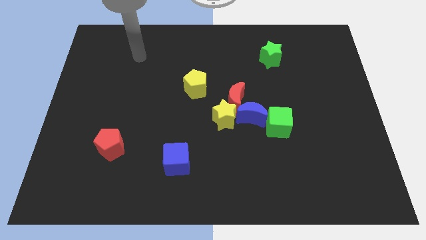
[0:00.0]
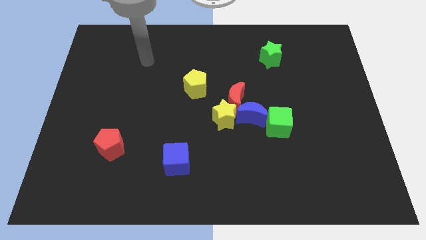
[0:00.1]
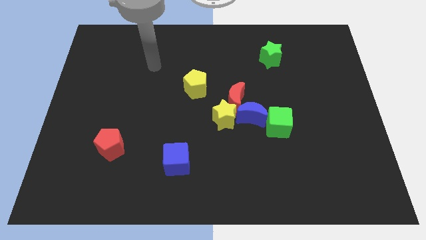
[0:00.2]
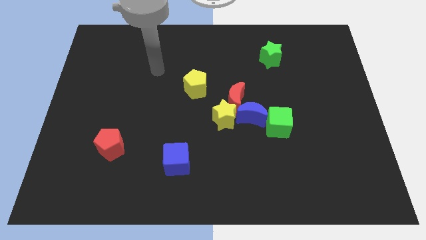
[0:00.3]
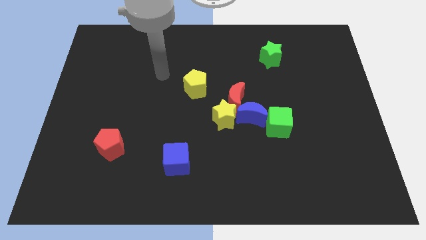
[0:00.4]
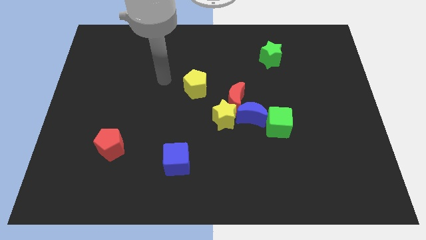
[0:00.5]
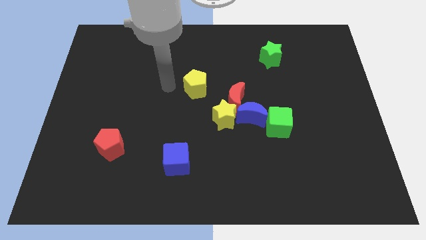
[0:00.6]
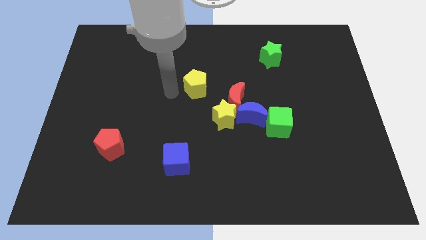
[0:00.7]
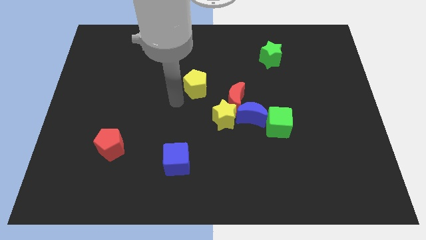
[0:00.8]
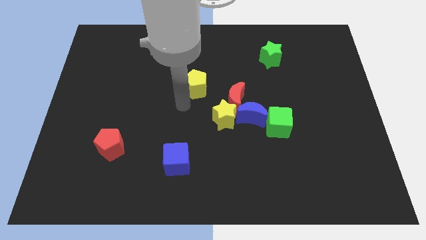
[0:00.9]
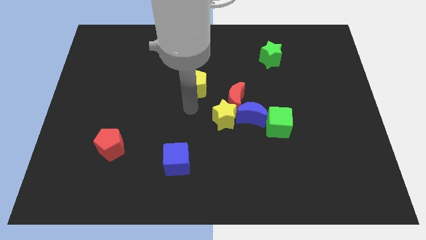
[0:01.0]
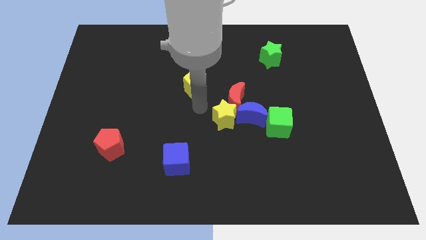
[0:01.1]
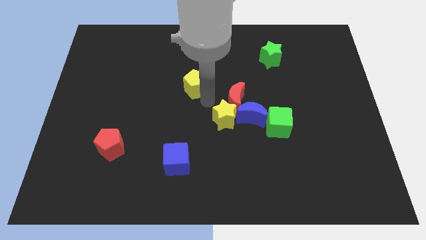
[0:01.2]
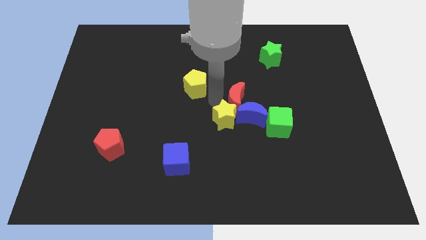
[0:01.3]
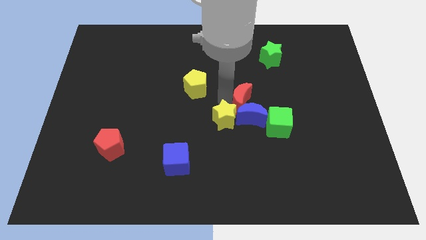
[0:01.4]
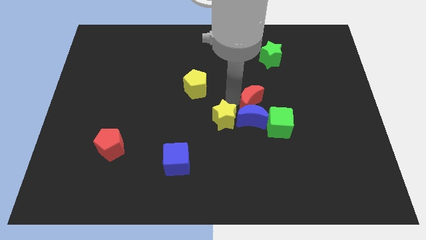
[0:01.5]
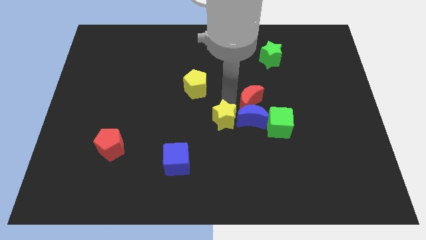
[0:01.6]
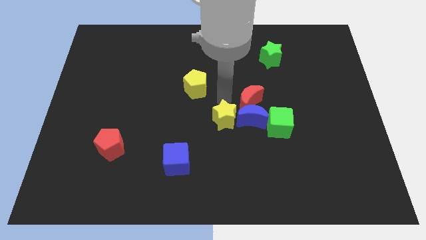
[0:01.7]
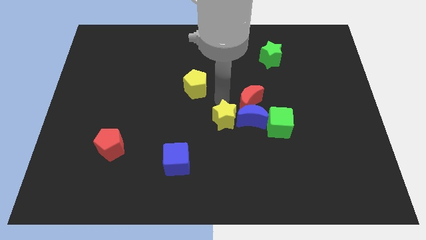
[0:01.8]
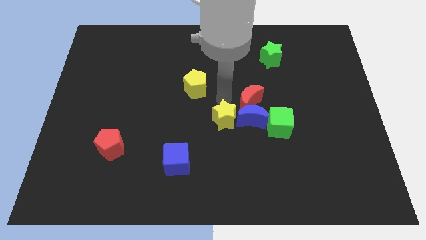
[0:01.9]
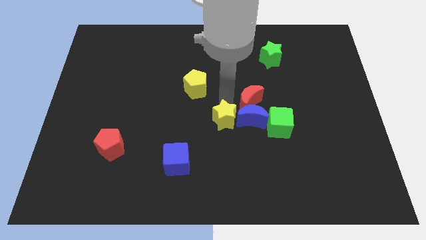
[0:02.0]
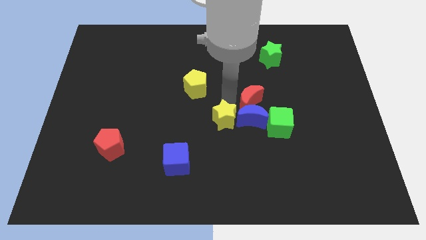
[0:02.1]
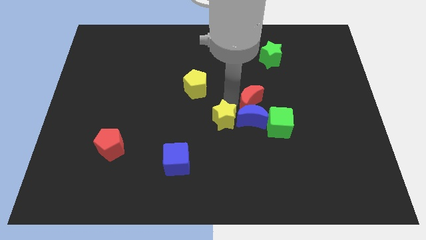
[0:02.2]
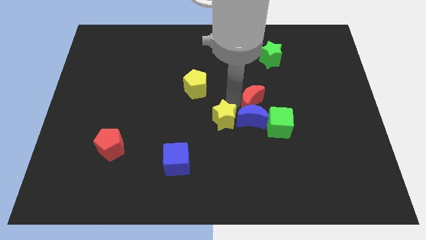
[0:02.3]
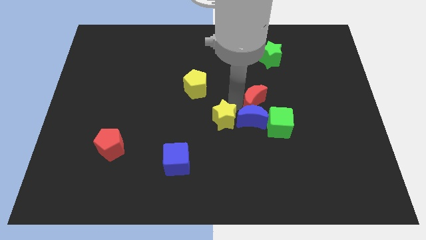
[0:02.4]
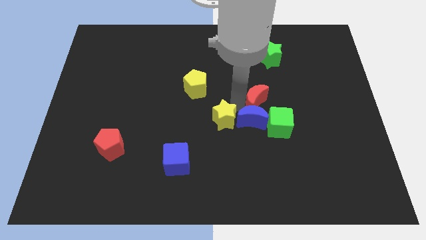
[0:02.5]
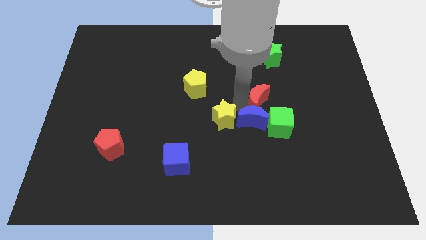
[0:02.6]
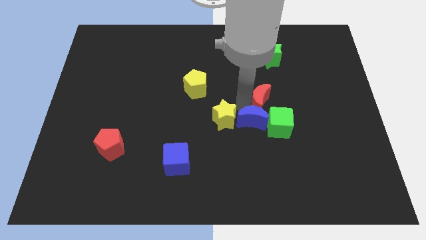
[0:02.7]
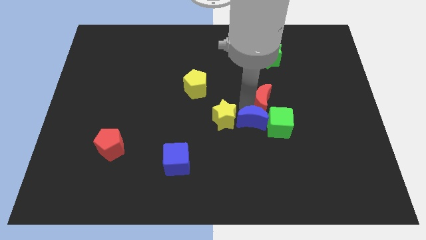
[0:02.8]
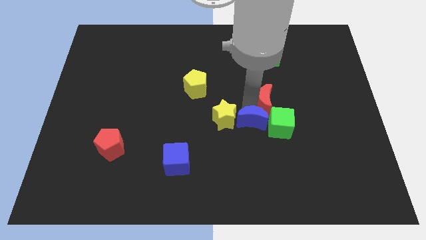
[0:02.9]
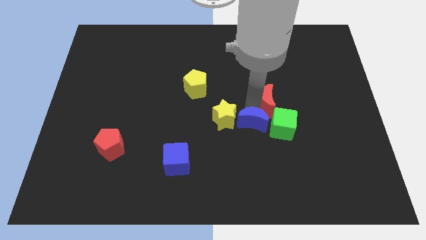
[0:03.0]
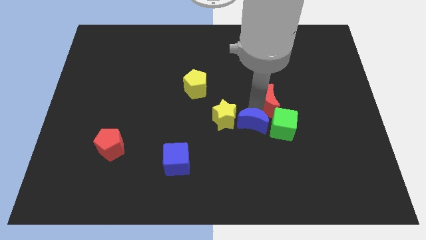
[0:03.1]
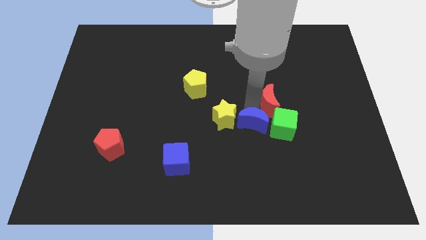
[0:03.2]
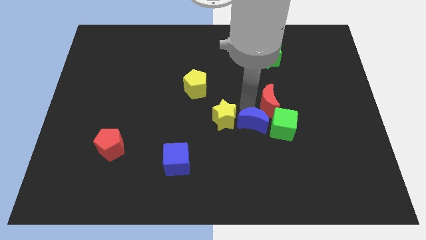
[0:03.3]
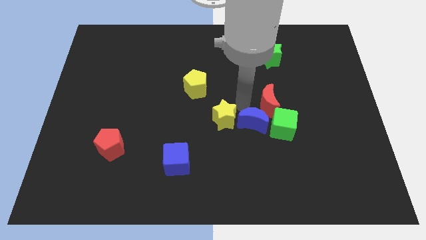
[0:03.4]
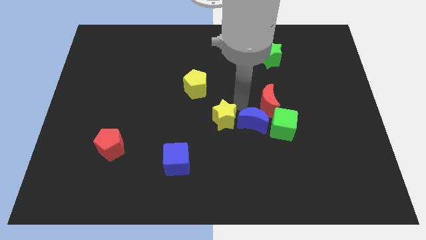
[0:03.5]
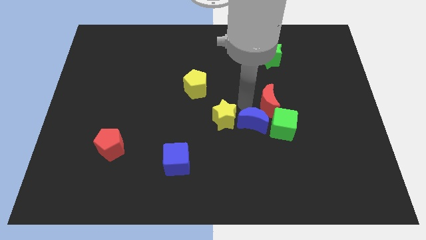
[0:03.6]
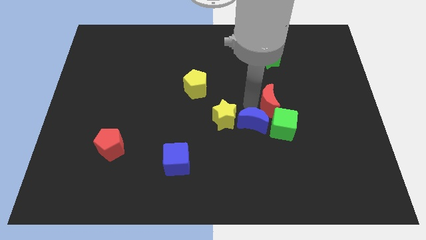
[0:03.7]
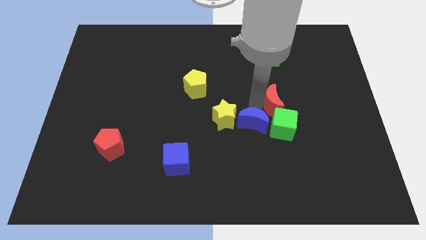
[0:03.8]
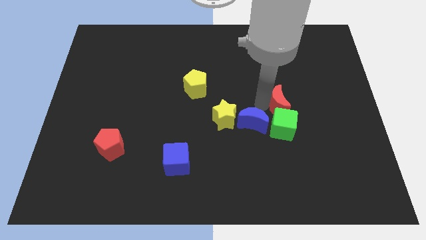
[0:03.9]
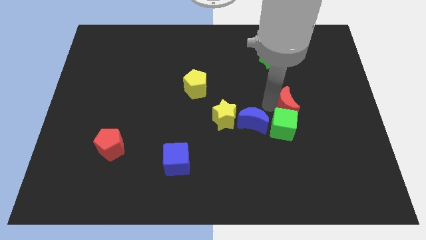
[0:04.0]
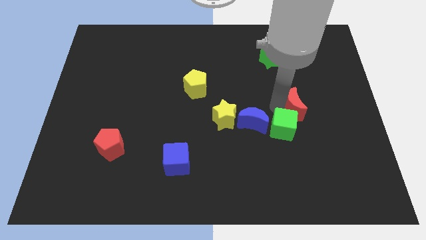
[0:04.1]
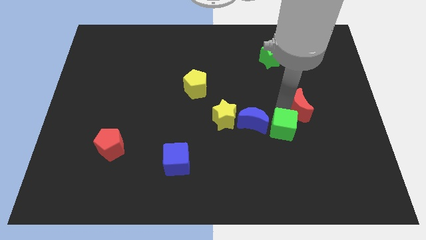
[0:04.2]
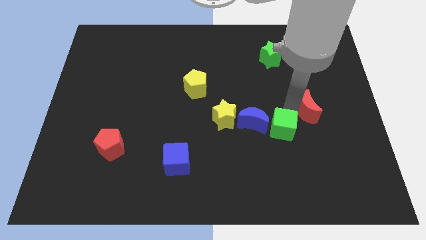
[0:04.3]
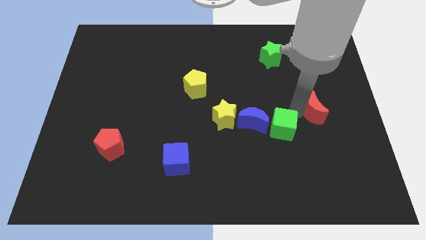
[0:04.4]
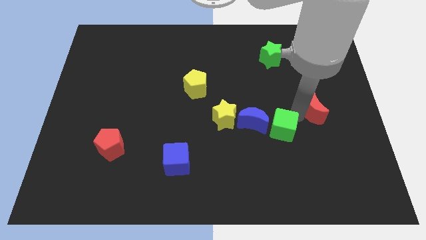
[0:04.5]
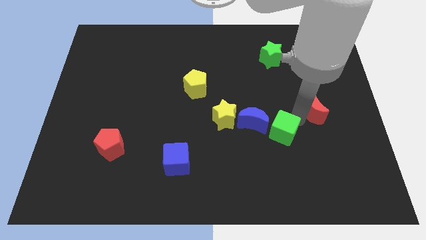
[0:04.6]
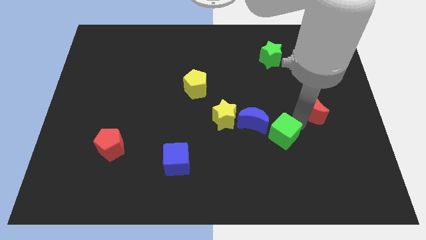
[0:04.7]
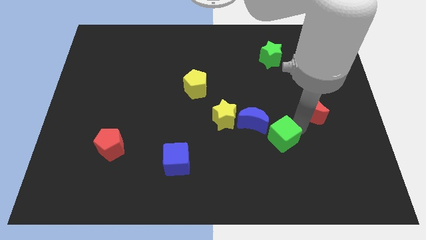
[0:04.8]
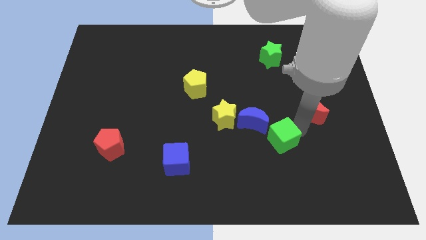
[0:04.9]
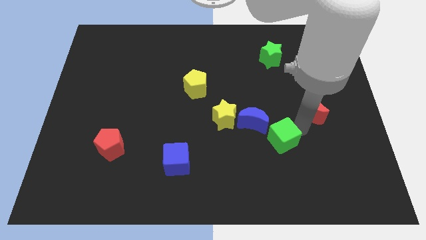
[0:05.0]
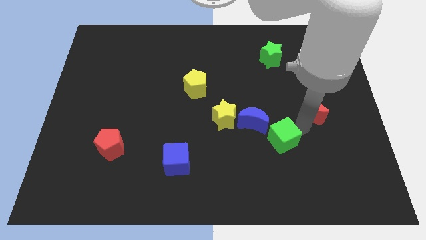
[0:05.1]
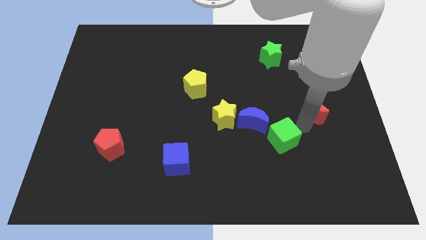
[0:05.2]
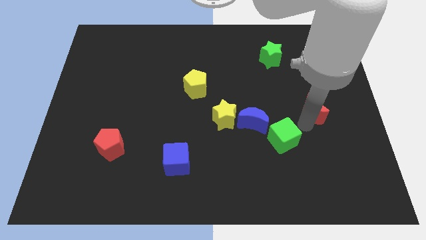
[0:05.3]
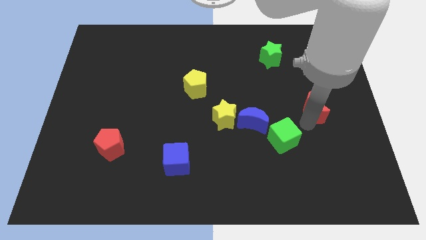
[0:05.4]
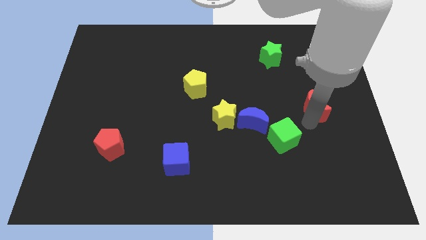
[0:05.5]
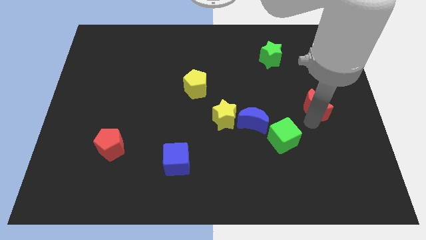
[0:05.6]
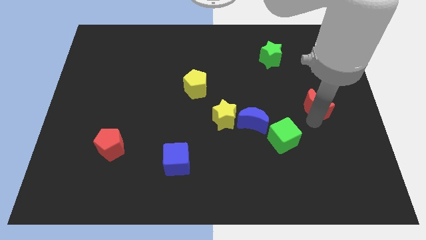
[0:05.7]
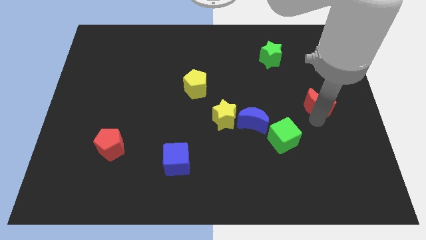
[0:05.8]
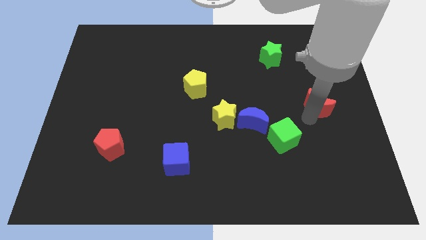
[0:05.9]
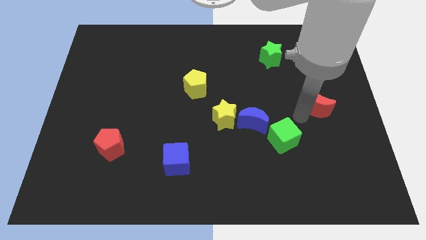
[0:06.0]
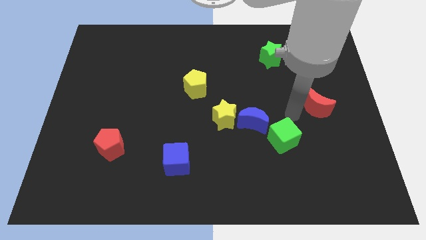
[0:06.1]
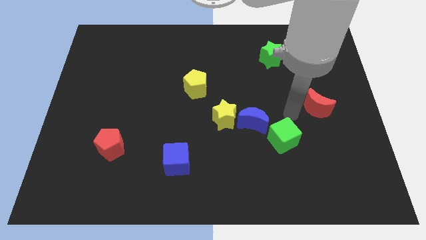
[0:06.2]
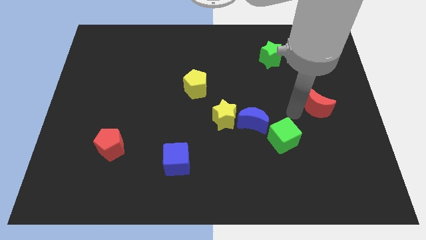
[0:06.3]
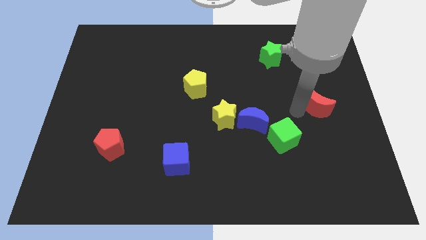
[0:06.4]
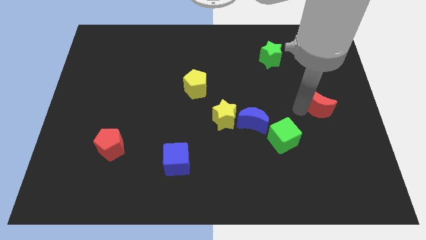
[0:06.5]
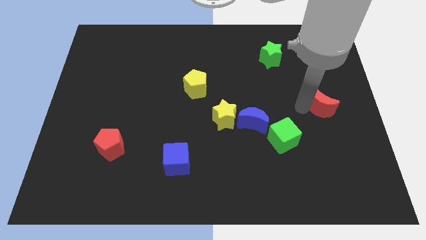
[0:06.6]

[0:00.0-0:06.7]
move the red moon to the right side

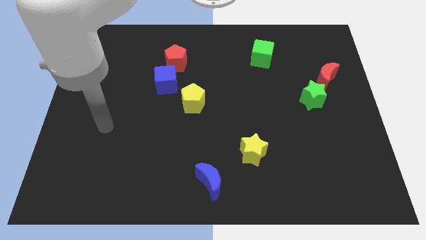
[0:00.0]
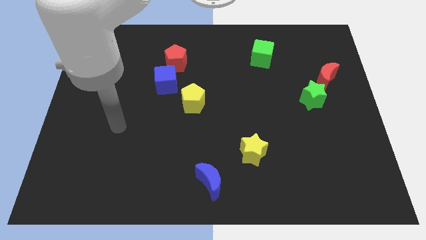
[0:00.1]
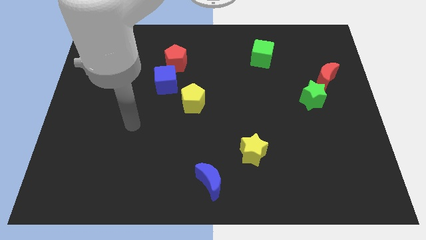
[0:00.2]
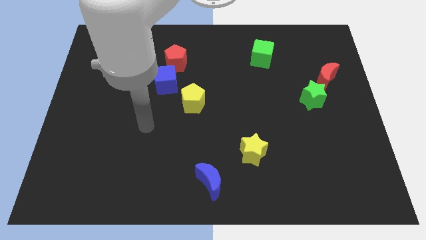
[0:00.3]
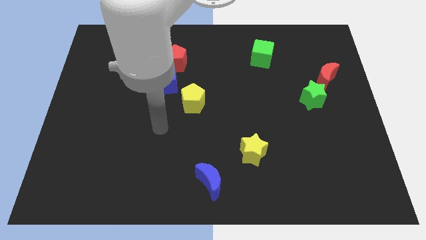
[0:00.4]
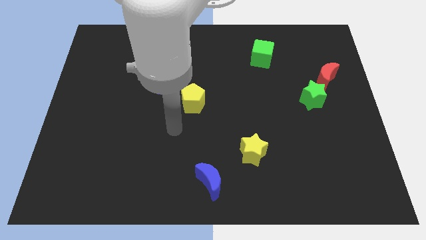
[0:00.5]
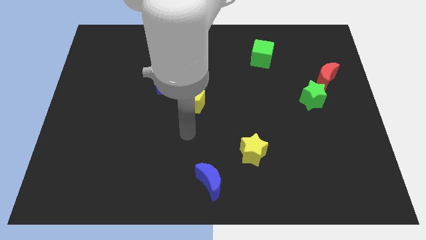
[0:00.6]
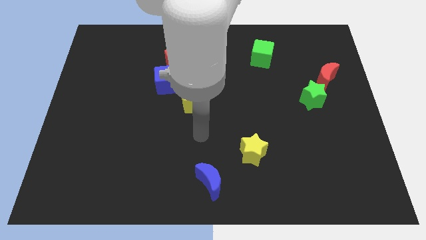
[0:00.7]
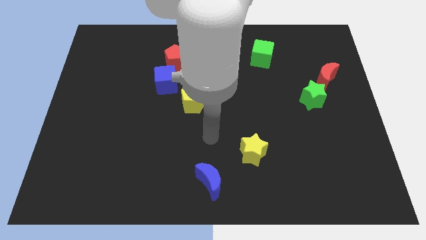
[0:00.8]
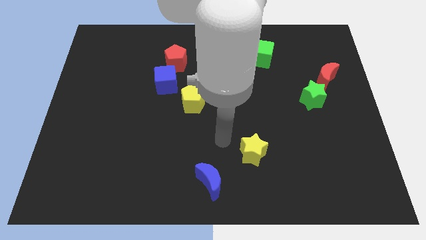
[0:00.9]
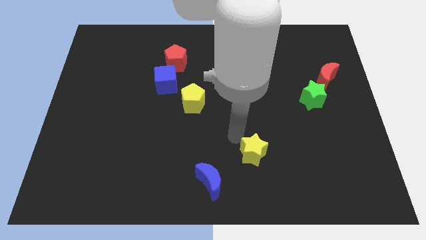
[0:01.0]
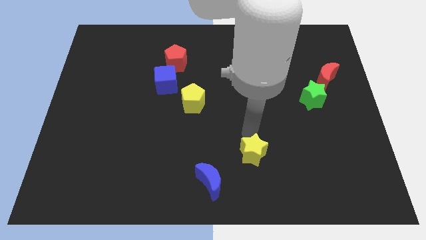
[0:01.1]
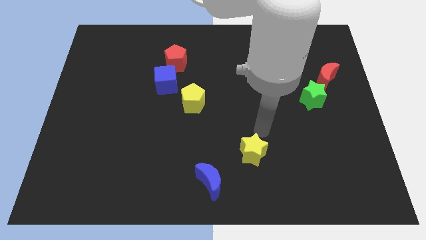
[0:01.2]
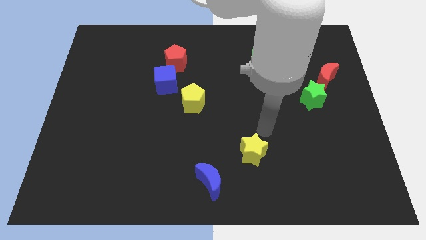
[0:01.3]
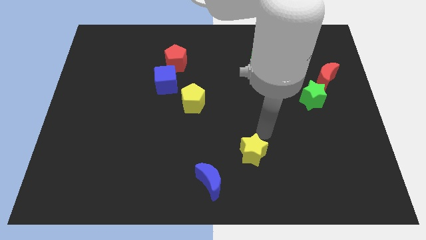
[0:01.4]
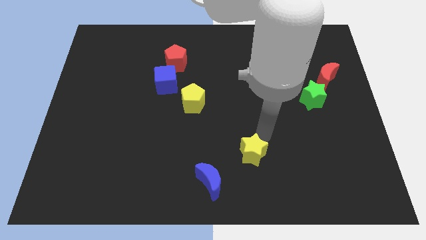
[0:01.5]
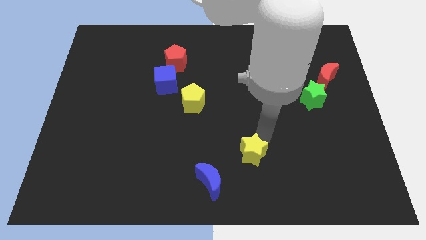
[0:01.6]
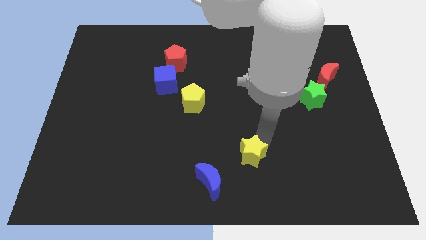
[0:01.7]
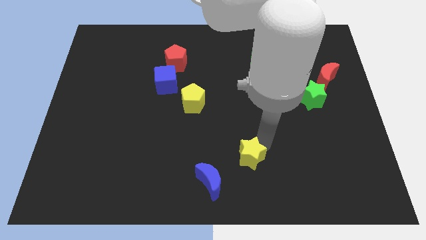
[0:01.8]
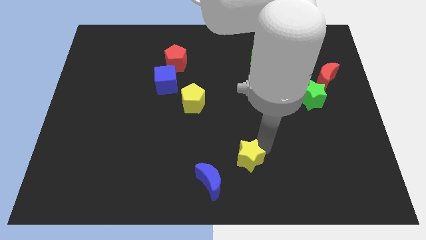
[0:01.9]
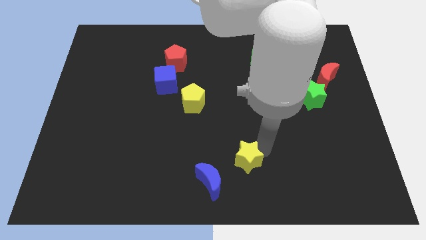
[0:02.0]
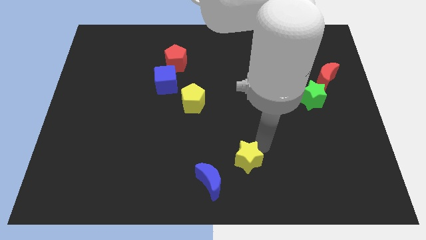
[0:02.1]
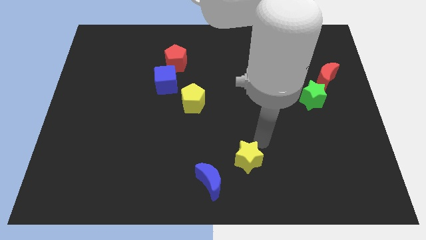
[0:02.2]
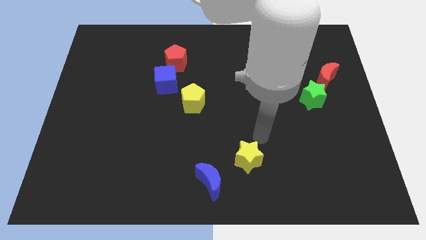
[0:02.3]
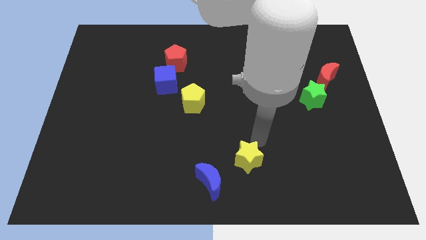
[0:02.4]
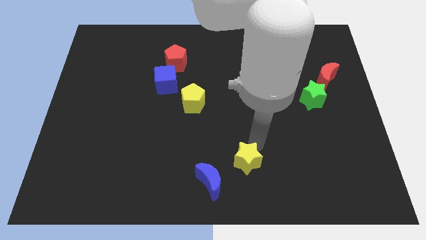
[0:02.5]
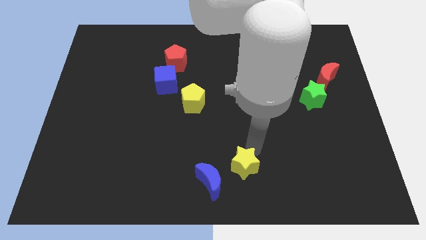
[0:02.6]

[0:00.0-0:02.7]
put the yellow star to the bottom
